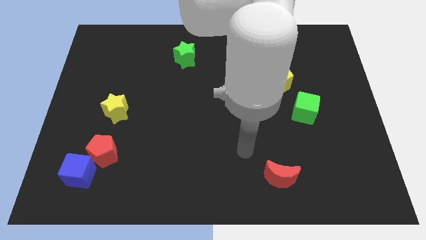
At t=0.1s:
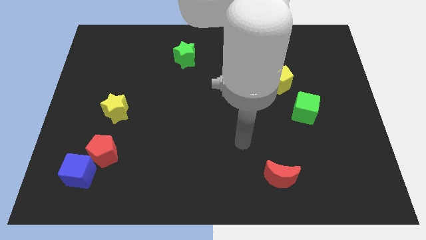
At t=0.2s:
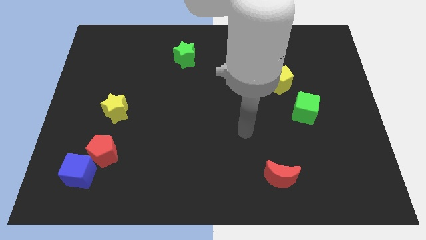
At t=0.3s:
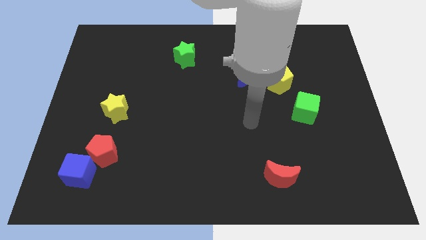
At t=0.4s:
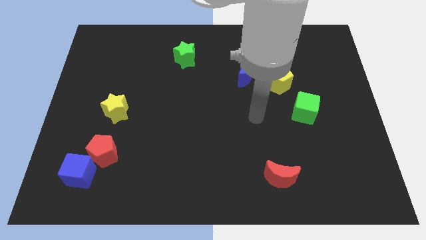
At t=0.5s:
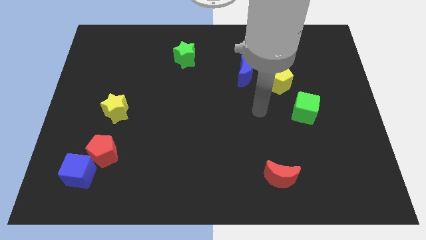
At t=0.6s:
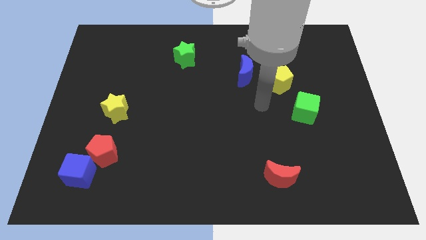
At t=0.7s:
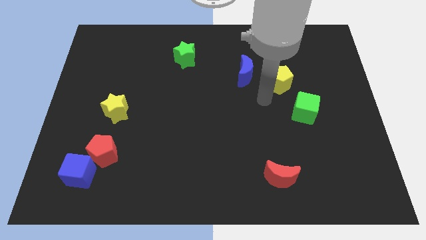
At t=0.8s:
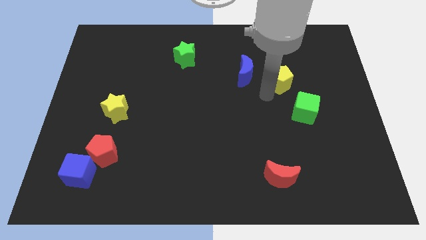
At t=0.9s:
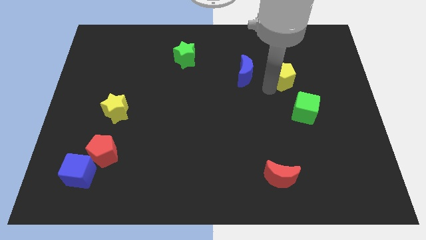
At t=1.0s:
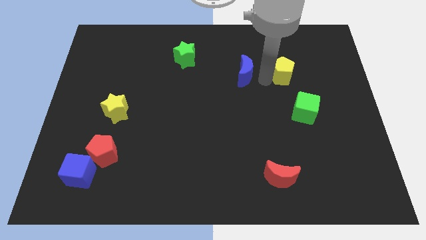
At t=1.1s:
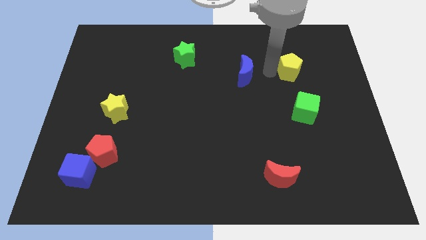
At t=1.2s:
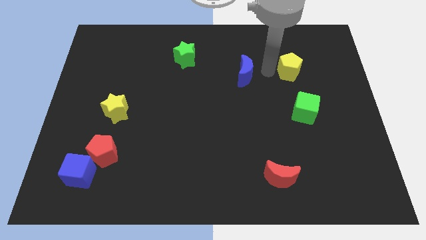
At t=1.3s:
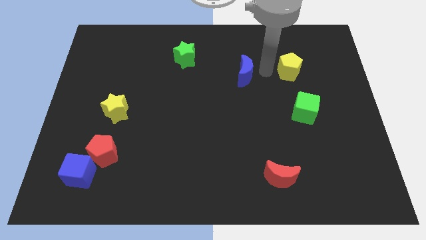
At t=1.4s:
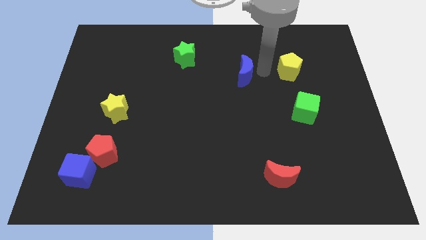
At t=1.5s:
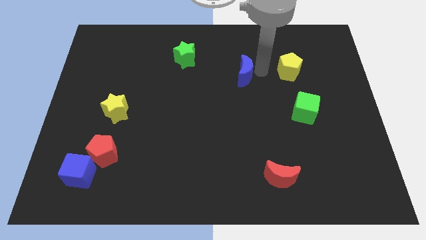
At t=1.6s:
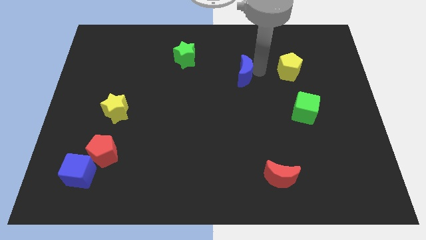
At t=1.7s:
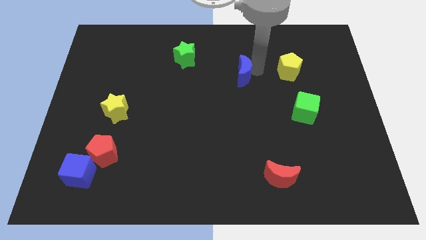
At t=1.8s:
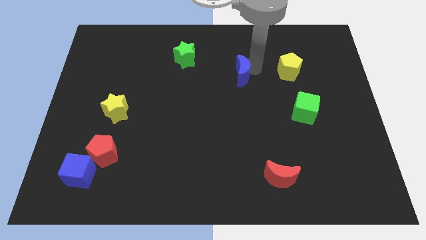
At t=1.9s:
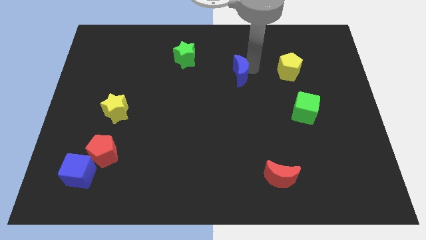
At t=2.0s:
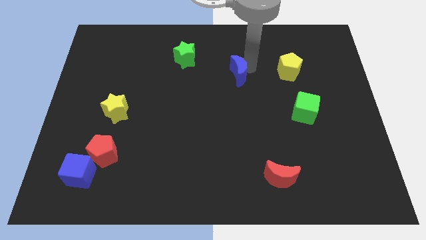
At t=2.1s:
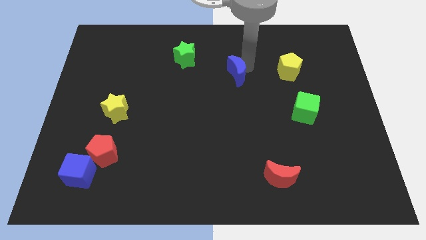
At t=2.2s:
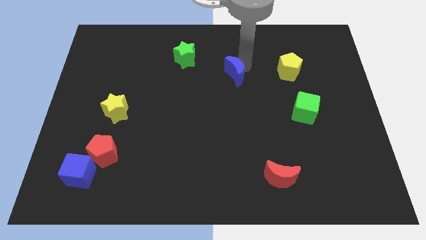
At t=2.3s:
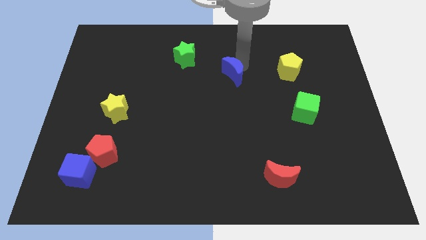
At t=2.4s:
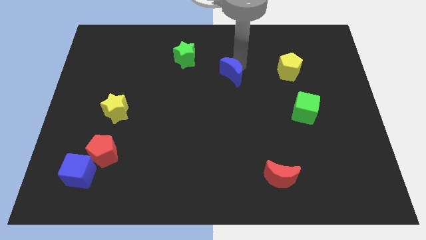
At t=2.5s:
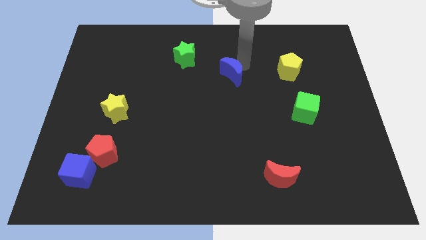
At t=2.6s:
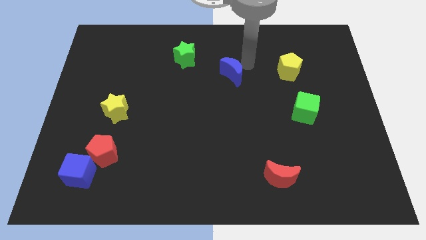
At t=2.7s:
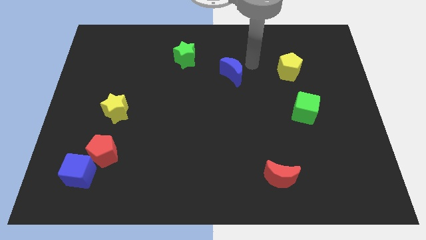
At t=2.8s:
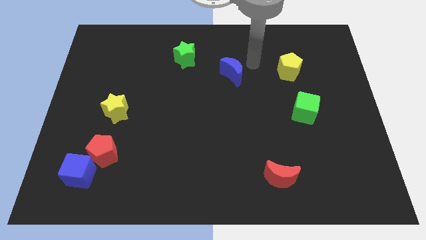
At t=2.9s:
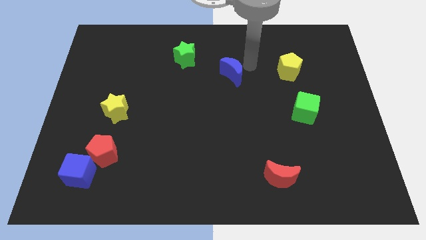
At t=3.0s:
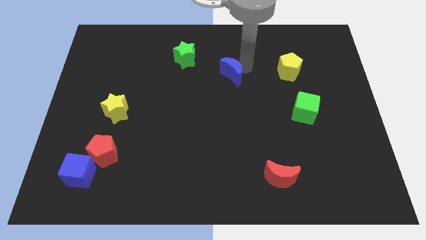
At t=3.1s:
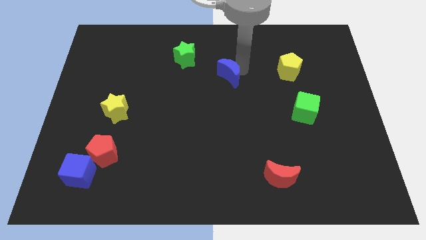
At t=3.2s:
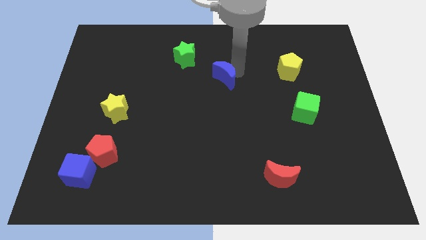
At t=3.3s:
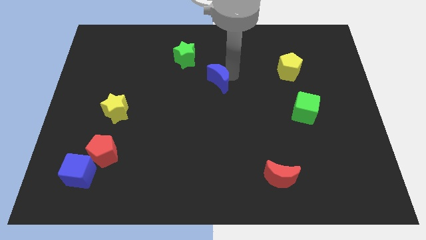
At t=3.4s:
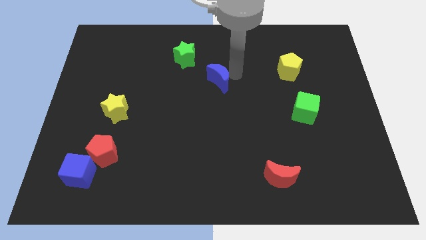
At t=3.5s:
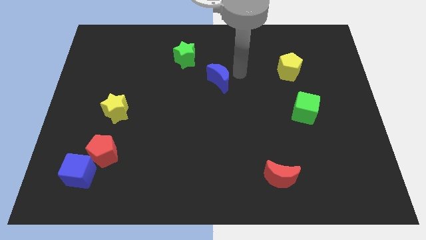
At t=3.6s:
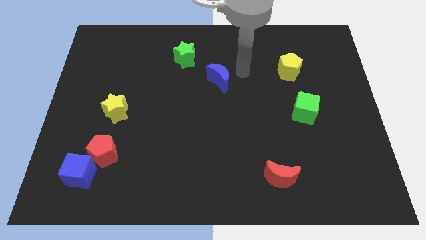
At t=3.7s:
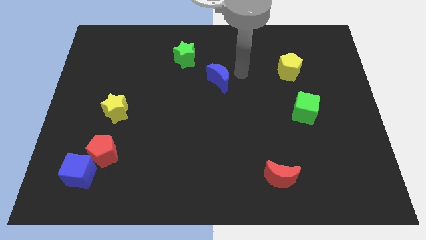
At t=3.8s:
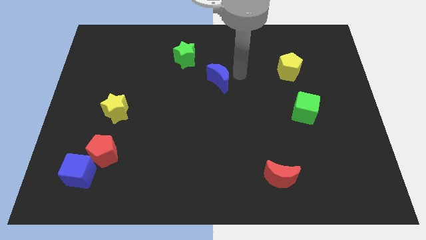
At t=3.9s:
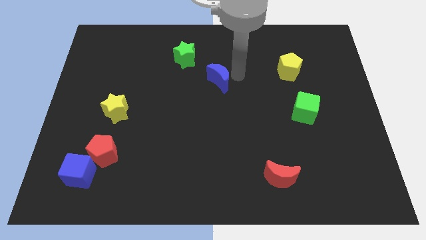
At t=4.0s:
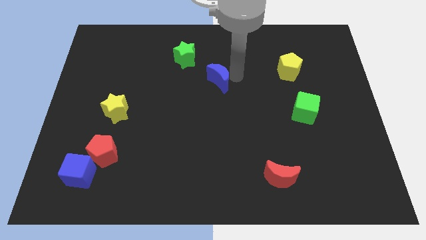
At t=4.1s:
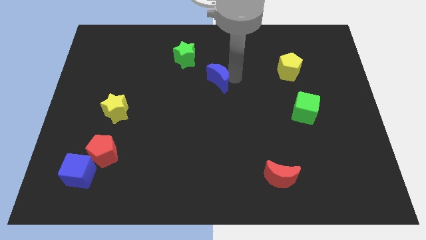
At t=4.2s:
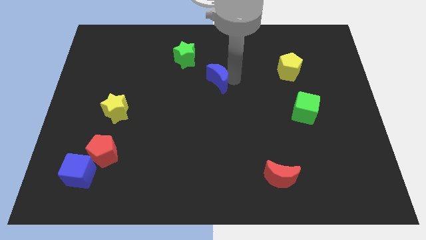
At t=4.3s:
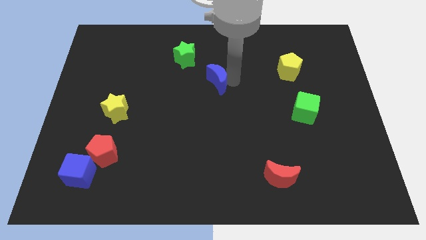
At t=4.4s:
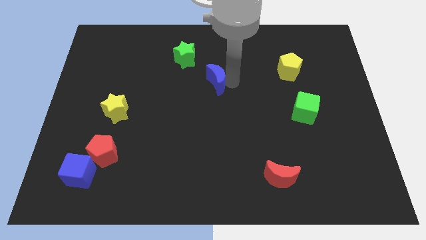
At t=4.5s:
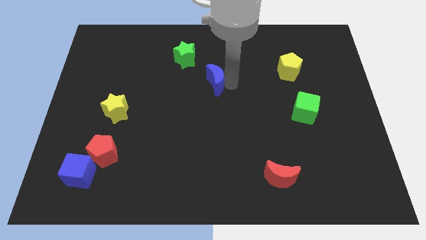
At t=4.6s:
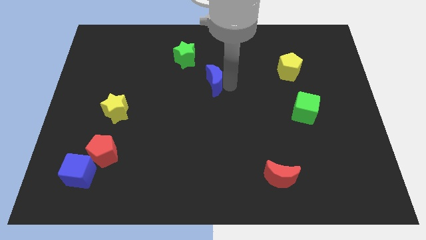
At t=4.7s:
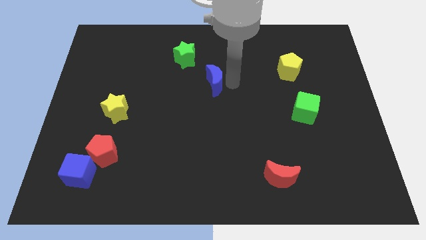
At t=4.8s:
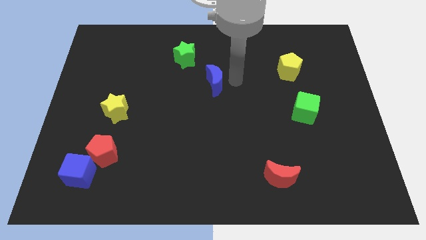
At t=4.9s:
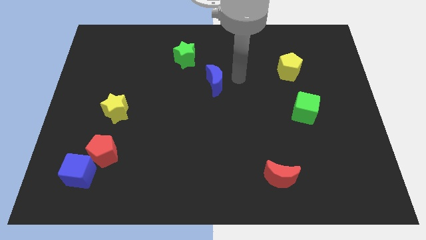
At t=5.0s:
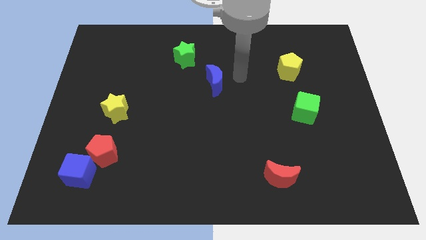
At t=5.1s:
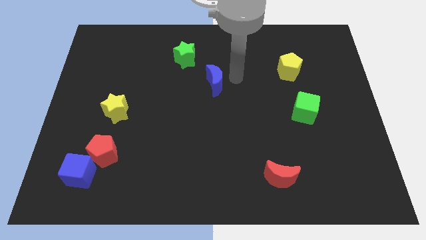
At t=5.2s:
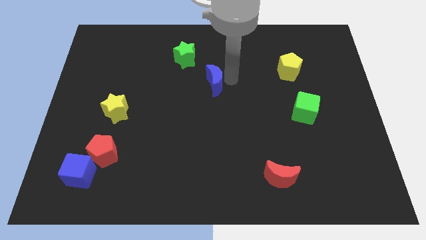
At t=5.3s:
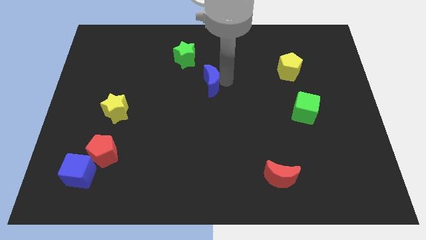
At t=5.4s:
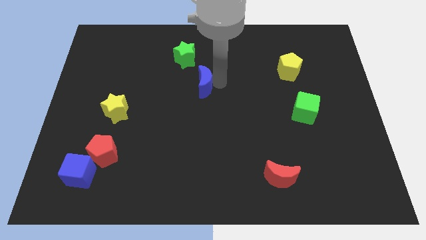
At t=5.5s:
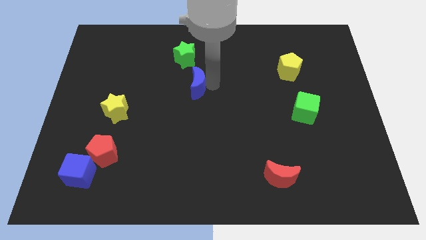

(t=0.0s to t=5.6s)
move the blue moon to the bottom of the green star

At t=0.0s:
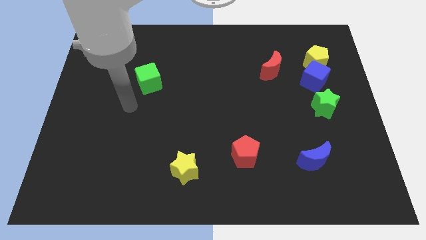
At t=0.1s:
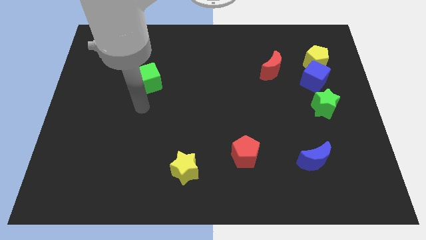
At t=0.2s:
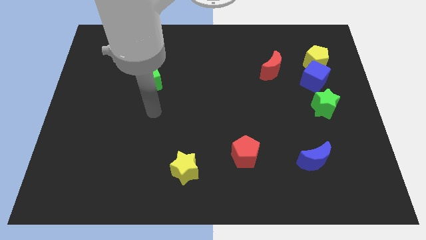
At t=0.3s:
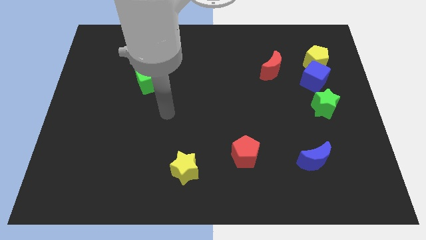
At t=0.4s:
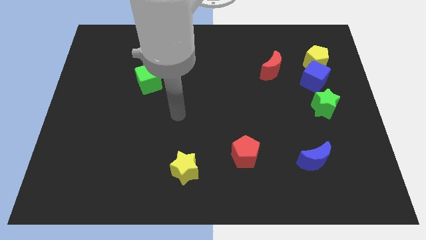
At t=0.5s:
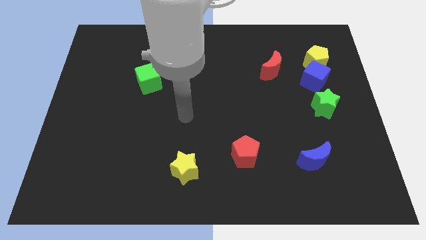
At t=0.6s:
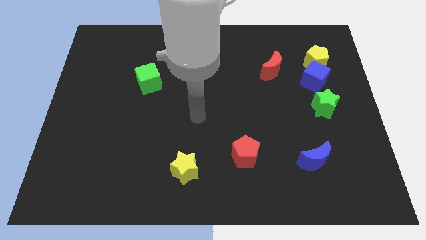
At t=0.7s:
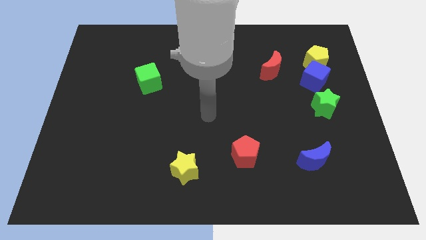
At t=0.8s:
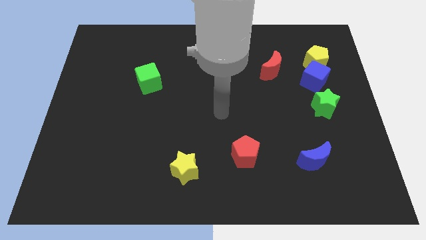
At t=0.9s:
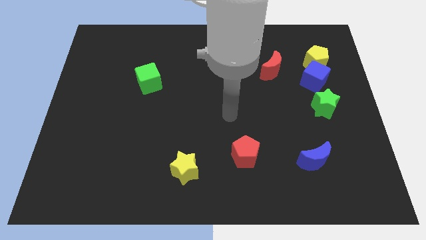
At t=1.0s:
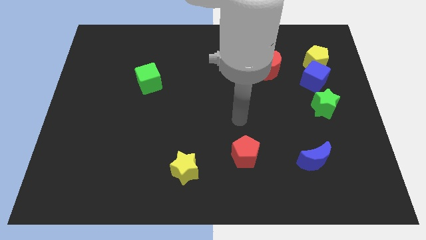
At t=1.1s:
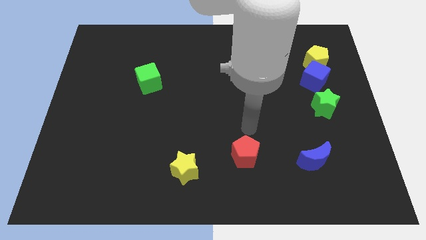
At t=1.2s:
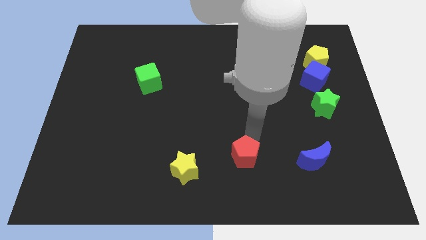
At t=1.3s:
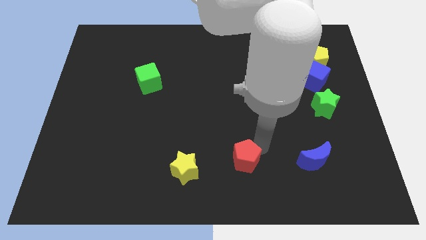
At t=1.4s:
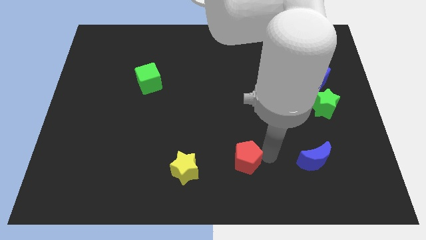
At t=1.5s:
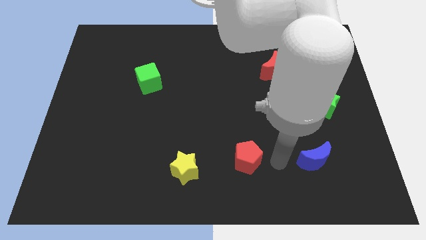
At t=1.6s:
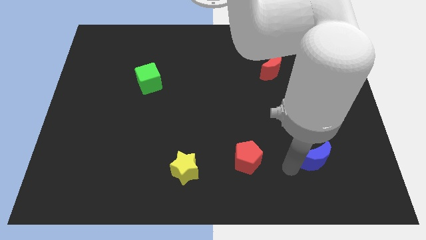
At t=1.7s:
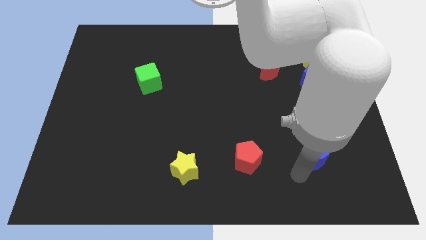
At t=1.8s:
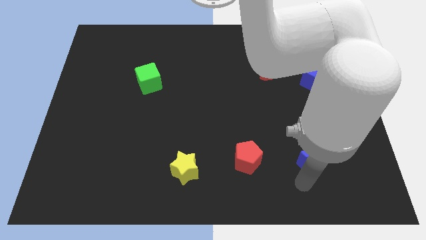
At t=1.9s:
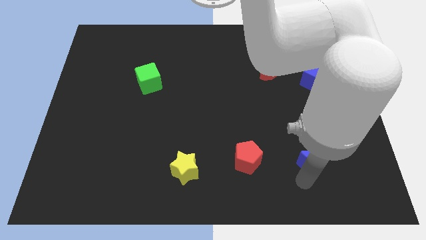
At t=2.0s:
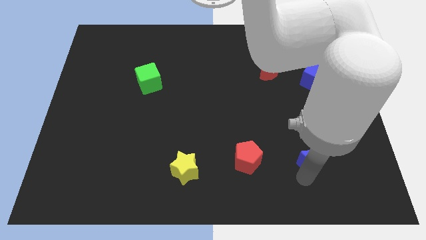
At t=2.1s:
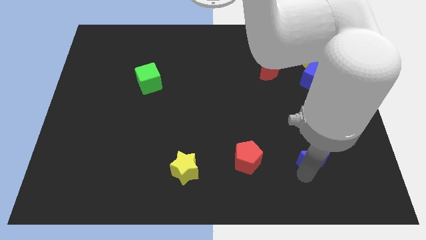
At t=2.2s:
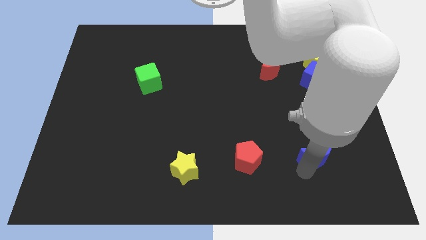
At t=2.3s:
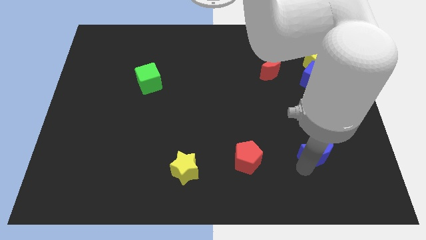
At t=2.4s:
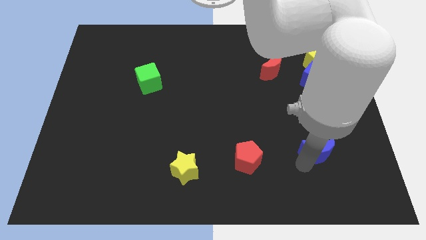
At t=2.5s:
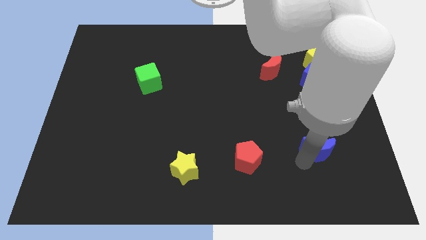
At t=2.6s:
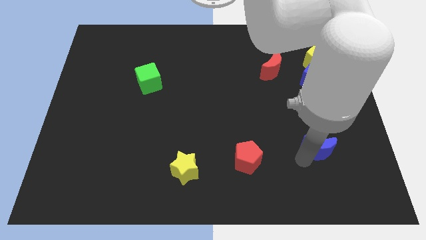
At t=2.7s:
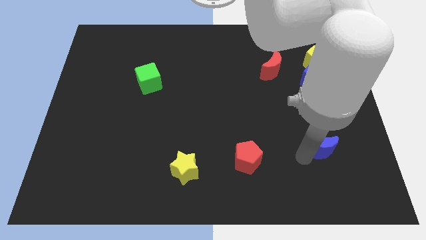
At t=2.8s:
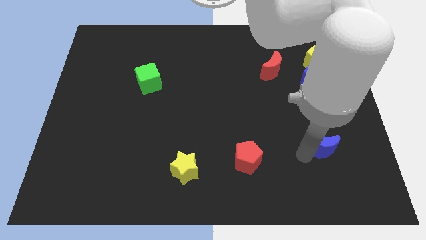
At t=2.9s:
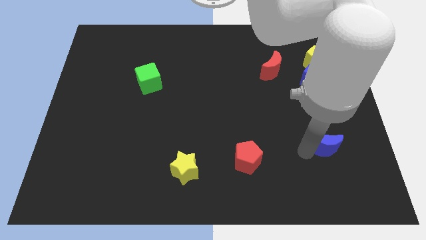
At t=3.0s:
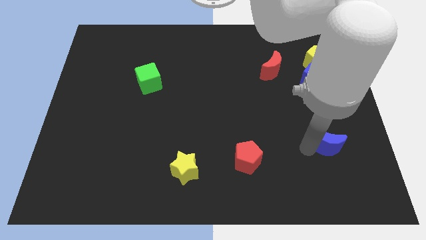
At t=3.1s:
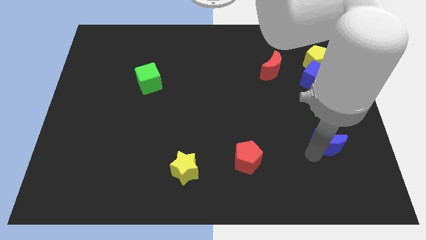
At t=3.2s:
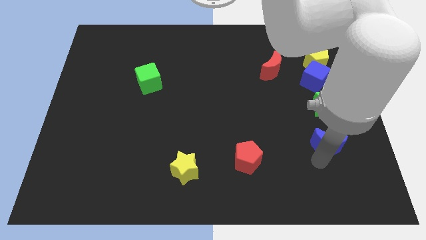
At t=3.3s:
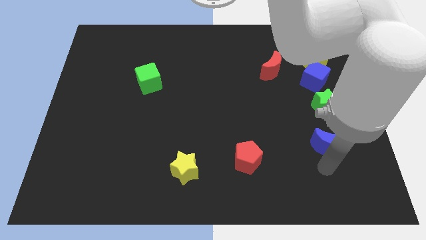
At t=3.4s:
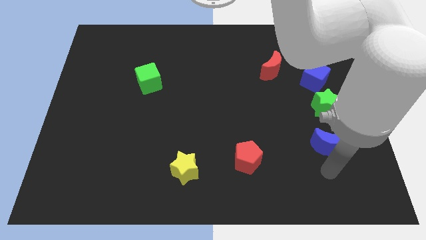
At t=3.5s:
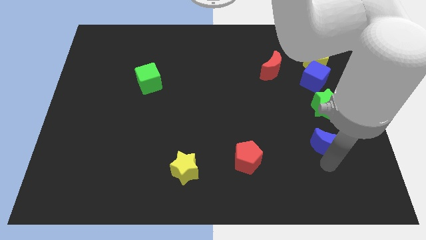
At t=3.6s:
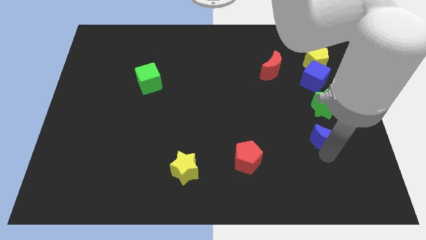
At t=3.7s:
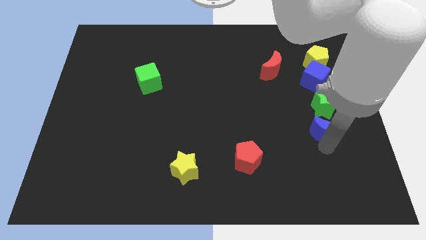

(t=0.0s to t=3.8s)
push the blue moon to the bottom side of the blue cube
